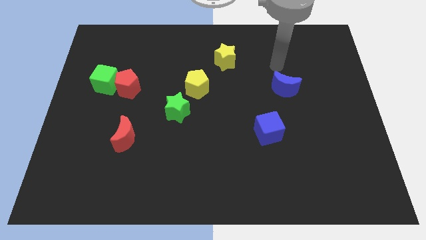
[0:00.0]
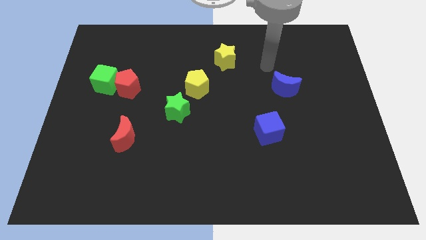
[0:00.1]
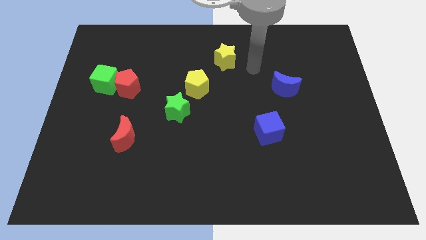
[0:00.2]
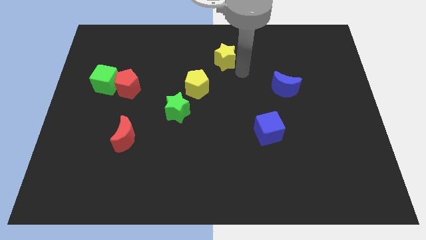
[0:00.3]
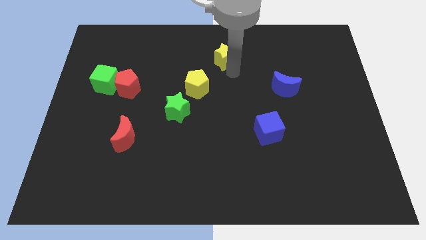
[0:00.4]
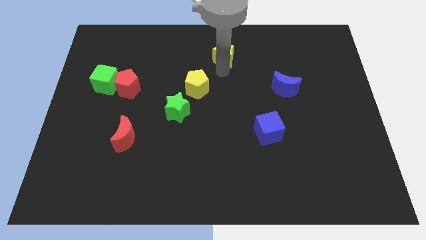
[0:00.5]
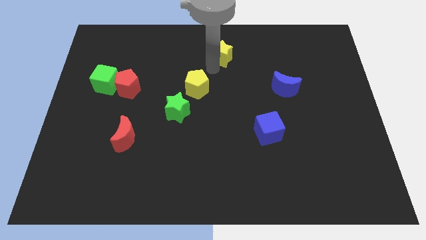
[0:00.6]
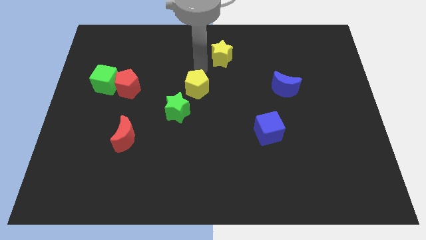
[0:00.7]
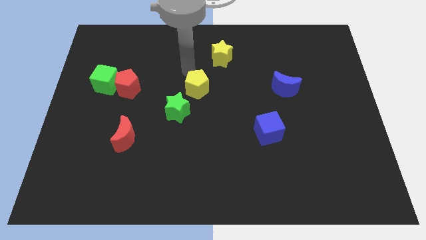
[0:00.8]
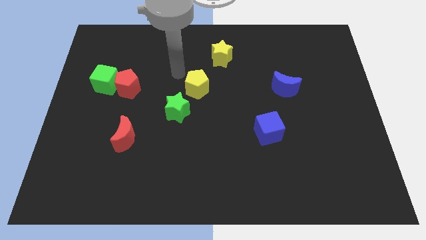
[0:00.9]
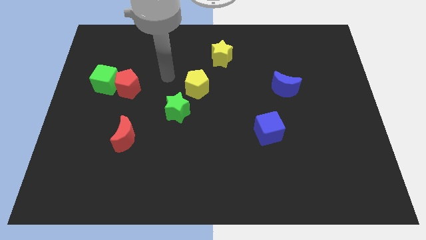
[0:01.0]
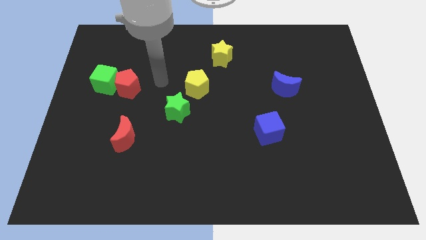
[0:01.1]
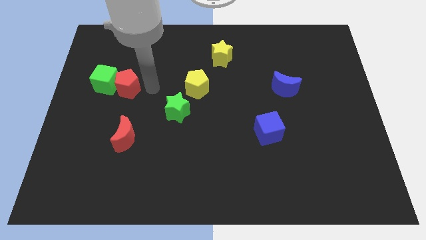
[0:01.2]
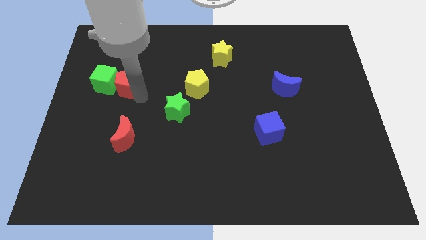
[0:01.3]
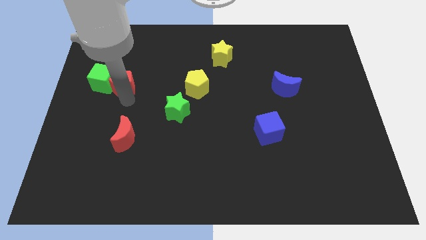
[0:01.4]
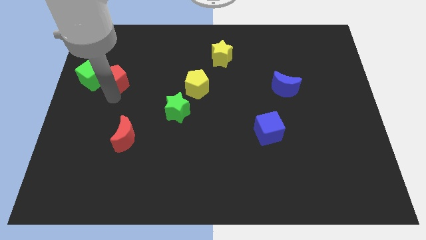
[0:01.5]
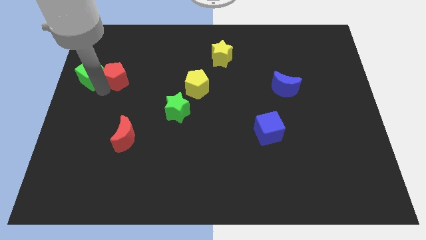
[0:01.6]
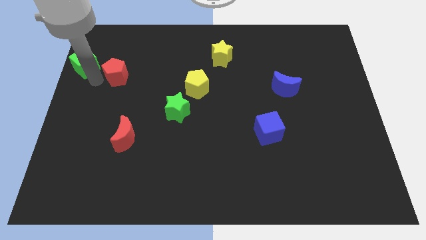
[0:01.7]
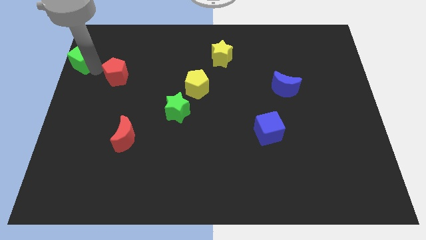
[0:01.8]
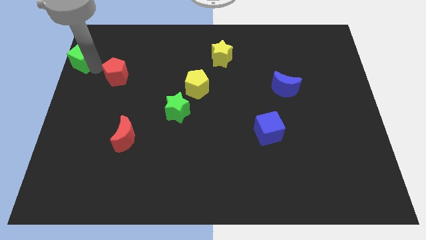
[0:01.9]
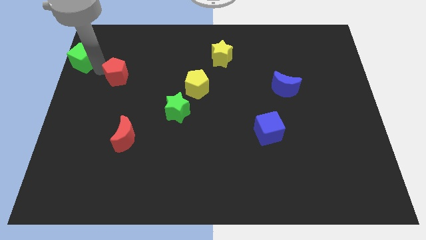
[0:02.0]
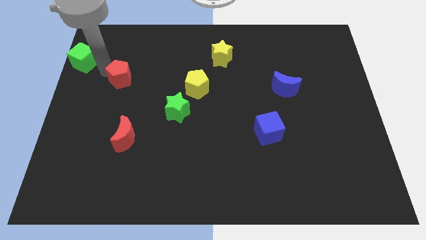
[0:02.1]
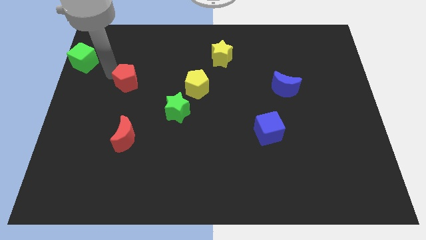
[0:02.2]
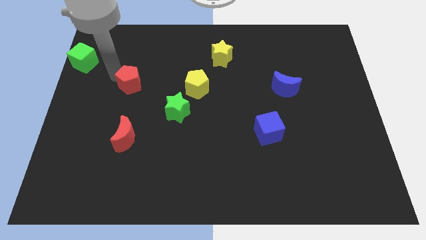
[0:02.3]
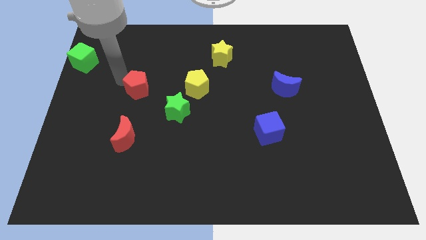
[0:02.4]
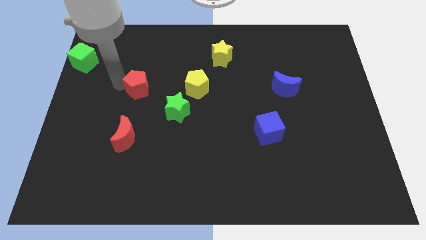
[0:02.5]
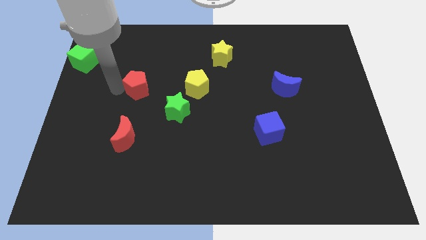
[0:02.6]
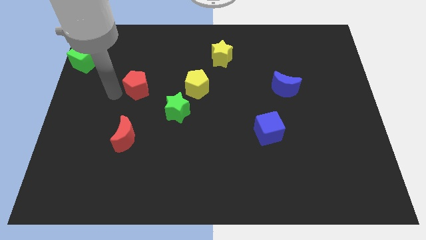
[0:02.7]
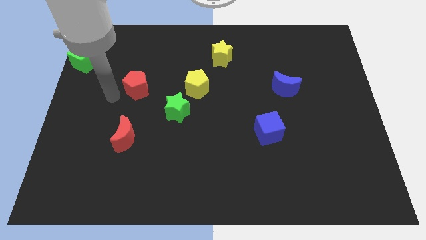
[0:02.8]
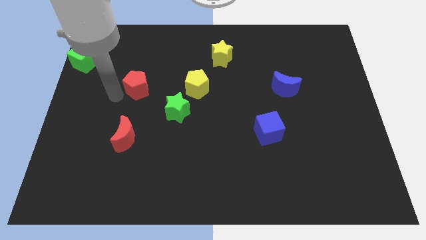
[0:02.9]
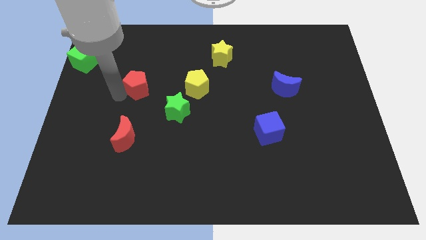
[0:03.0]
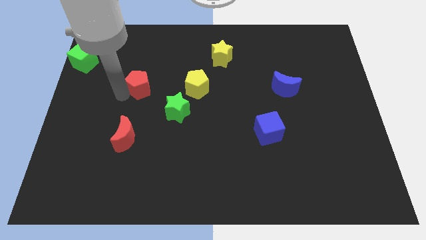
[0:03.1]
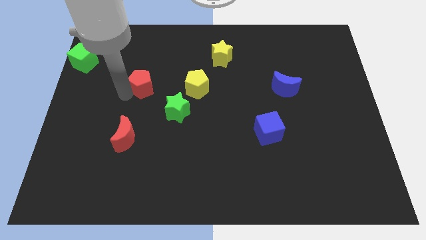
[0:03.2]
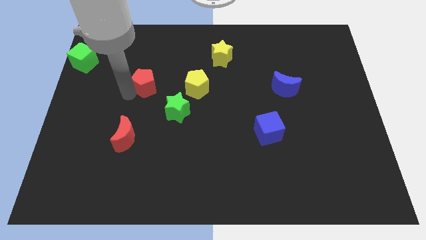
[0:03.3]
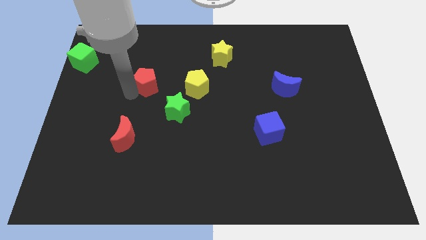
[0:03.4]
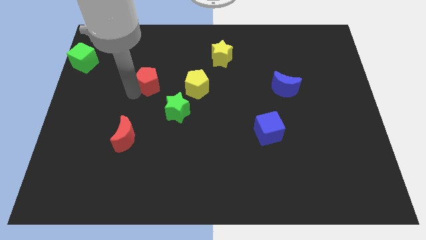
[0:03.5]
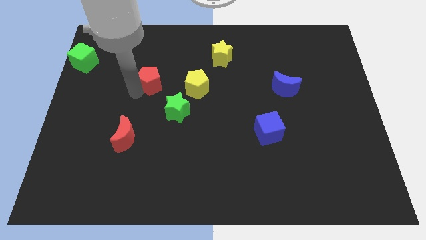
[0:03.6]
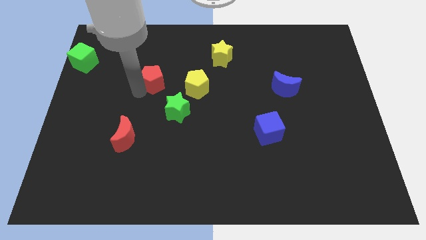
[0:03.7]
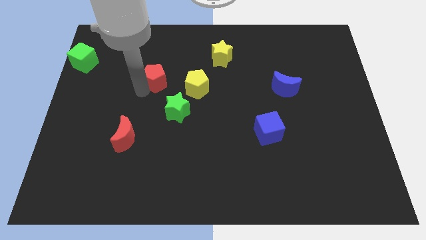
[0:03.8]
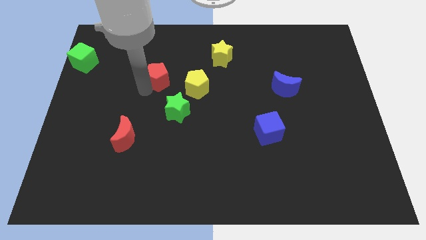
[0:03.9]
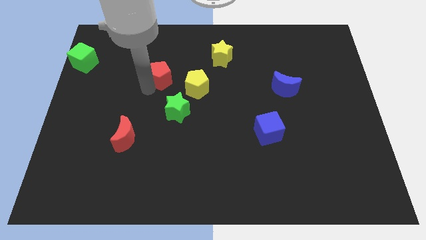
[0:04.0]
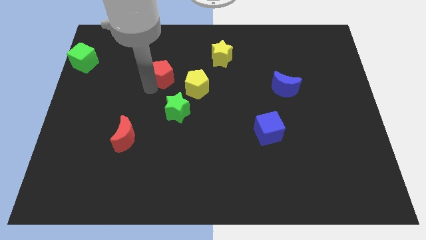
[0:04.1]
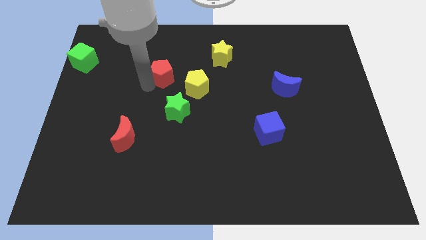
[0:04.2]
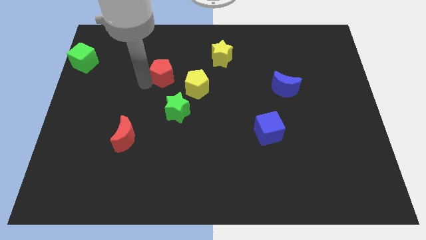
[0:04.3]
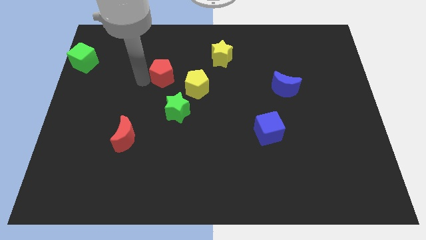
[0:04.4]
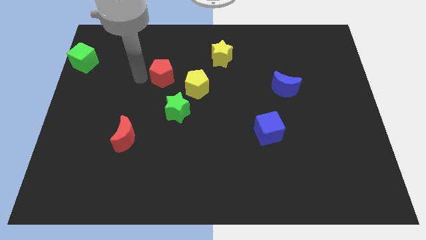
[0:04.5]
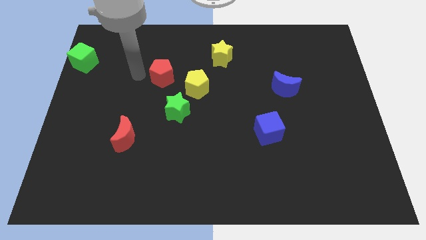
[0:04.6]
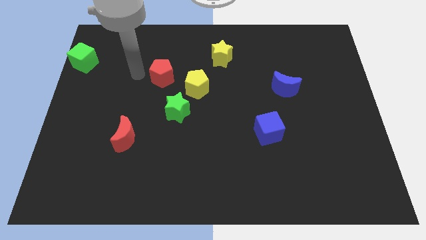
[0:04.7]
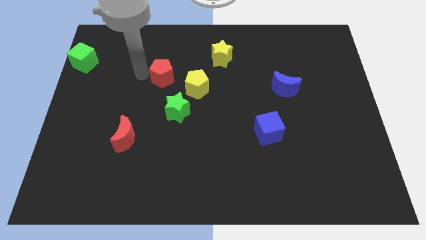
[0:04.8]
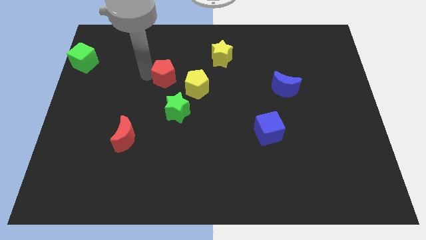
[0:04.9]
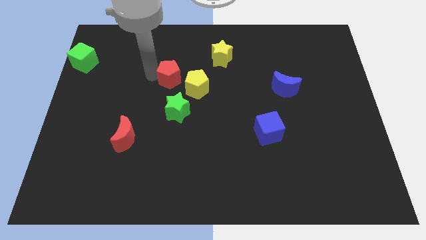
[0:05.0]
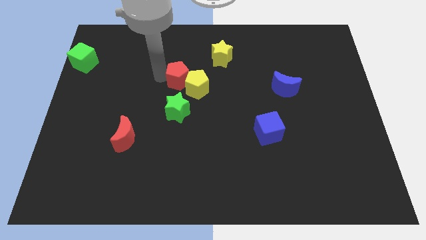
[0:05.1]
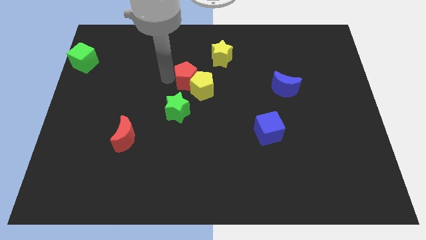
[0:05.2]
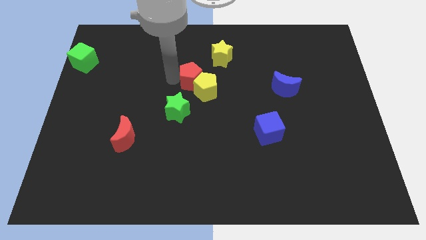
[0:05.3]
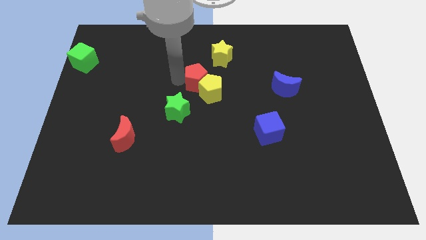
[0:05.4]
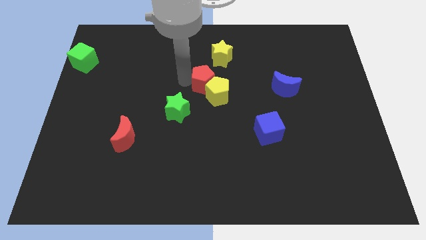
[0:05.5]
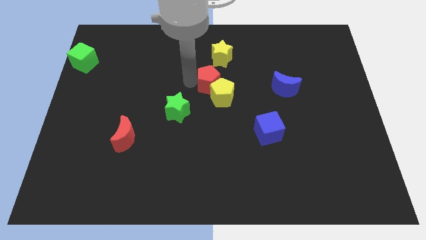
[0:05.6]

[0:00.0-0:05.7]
slide the red pentagon to the right

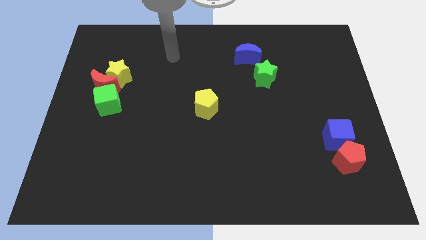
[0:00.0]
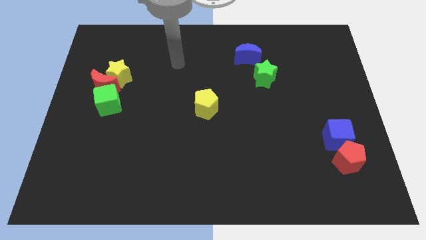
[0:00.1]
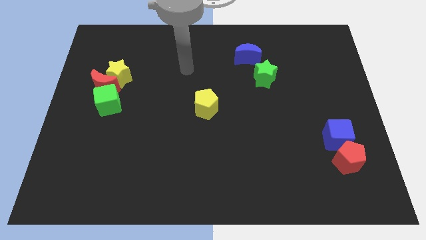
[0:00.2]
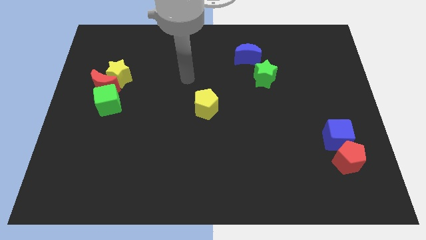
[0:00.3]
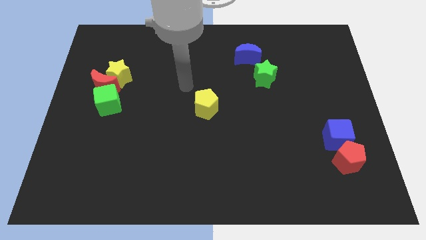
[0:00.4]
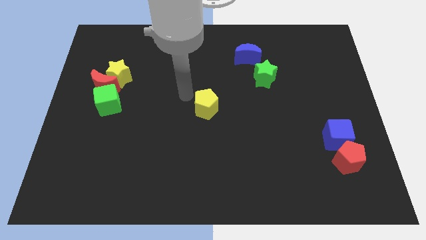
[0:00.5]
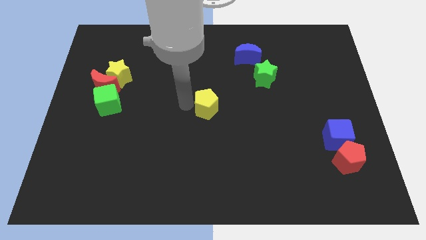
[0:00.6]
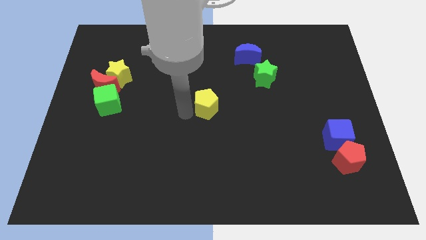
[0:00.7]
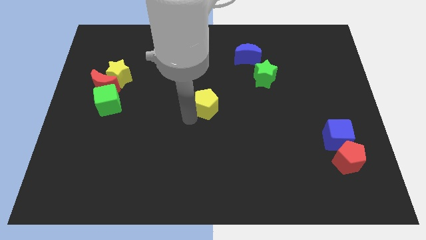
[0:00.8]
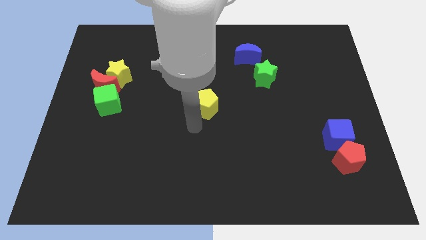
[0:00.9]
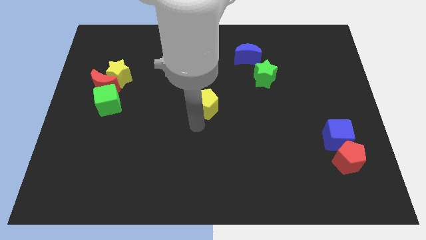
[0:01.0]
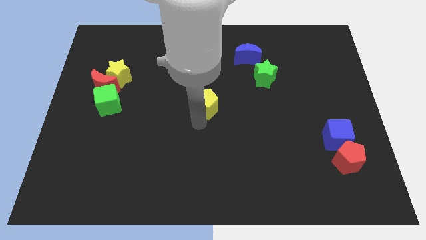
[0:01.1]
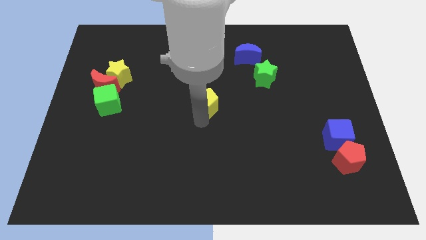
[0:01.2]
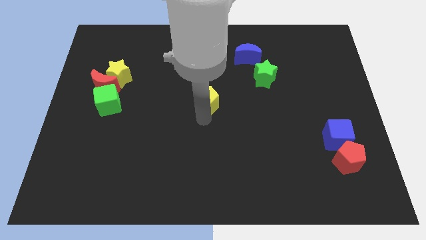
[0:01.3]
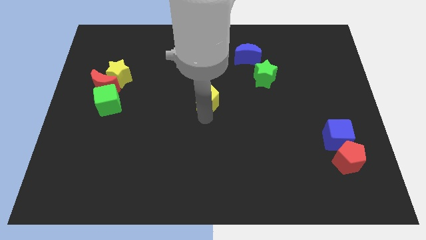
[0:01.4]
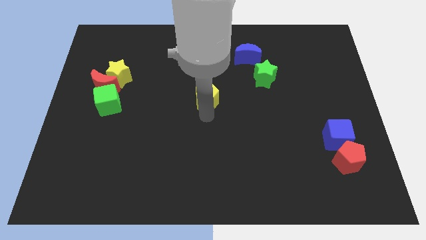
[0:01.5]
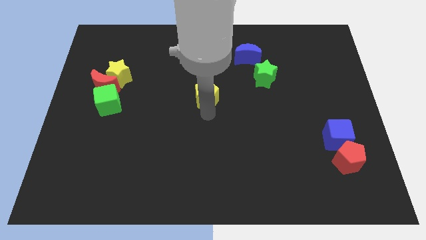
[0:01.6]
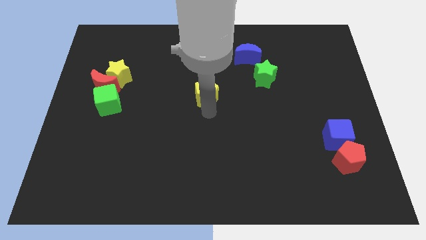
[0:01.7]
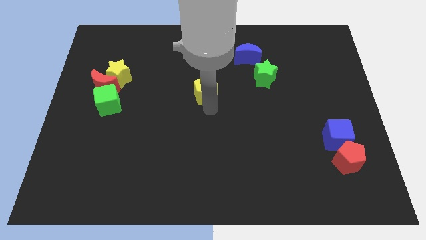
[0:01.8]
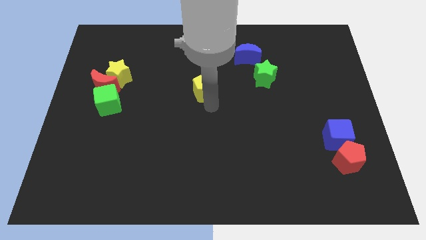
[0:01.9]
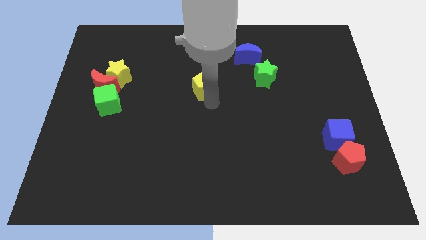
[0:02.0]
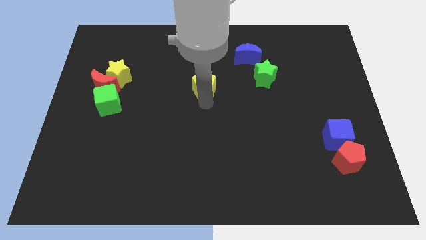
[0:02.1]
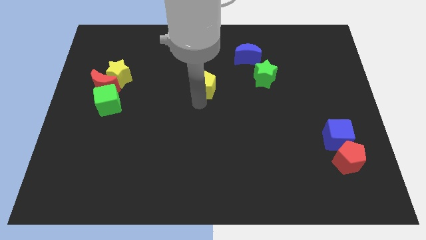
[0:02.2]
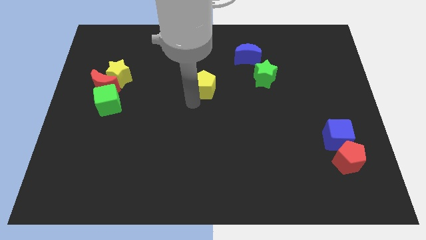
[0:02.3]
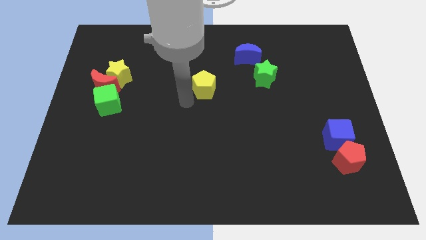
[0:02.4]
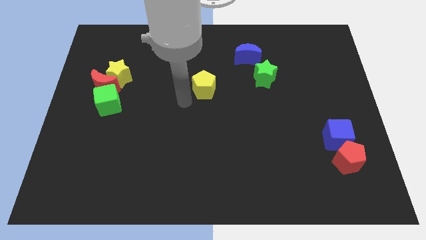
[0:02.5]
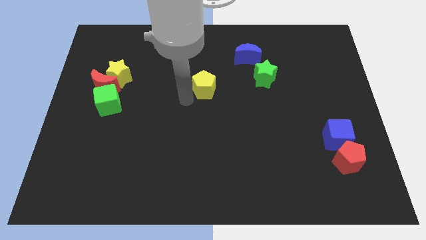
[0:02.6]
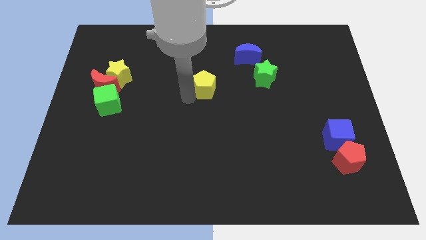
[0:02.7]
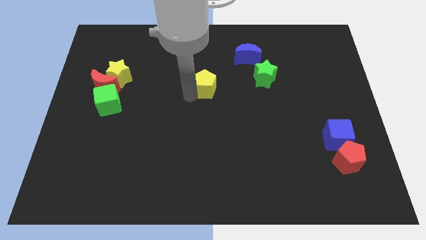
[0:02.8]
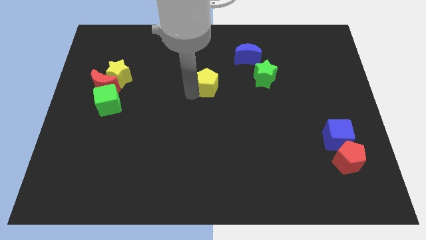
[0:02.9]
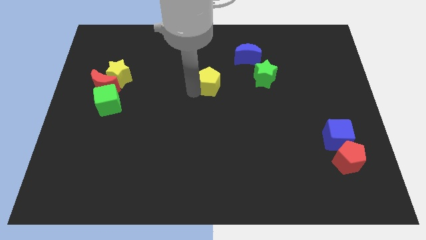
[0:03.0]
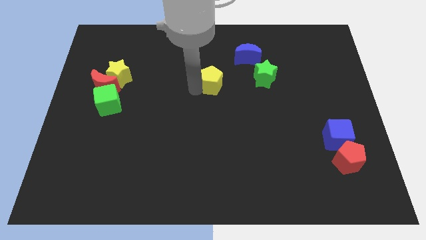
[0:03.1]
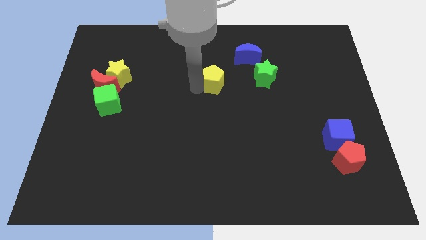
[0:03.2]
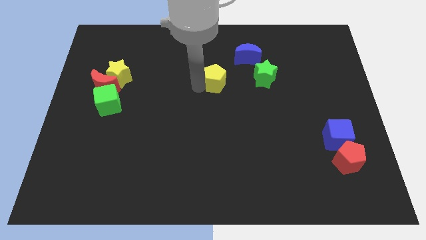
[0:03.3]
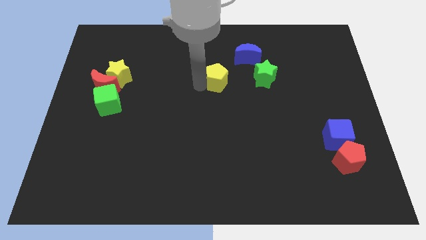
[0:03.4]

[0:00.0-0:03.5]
move the yellow pentagon up and to the right slightly
